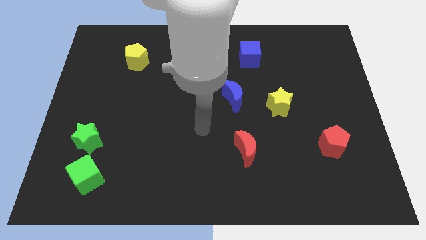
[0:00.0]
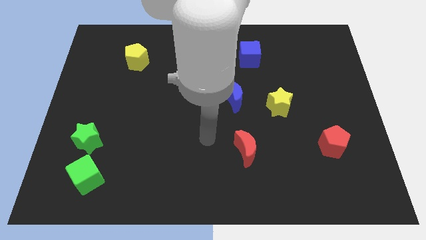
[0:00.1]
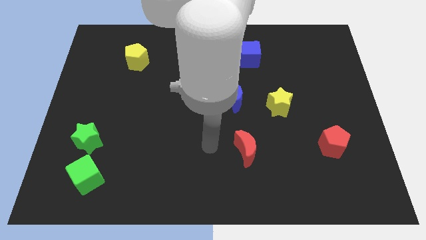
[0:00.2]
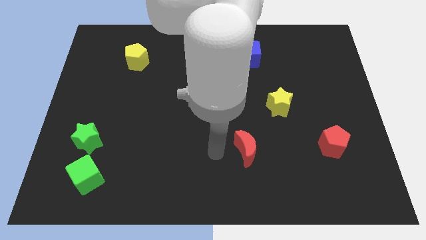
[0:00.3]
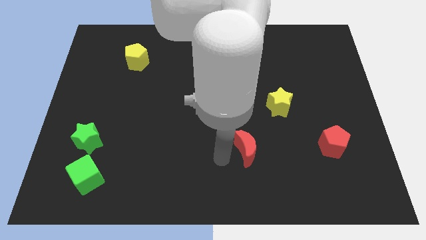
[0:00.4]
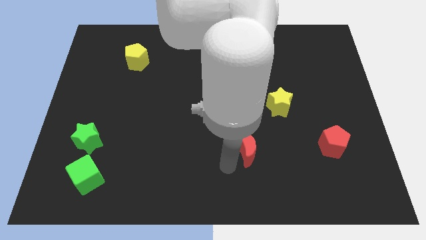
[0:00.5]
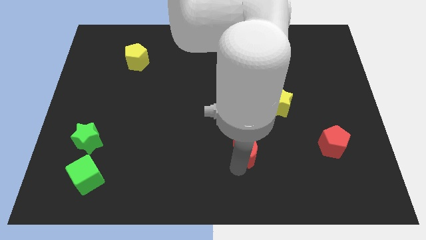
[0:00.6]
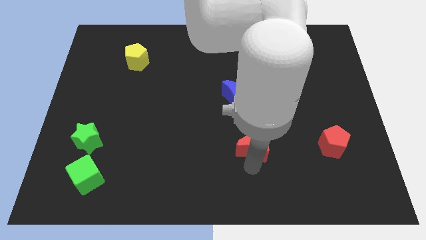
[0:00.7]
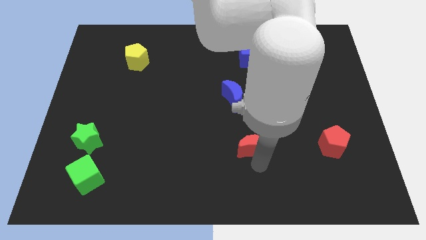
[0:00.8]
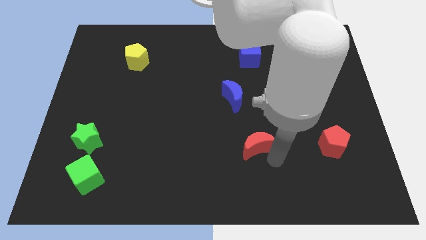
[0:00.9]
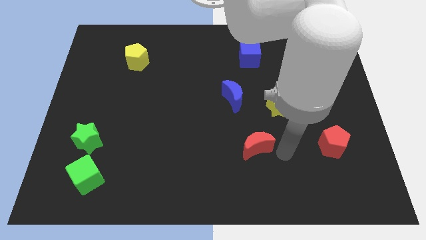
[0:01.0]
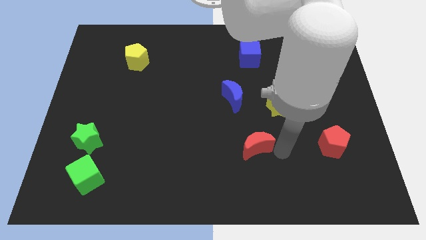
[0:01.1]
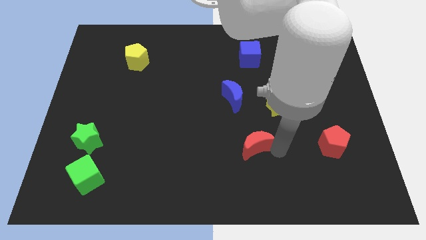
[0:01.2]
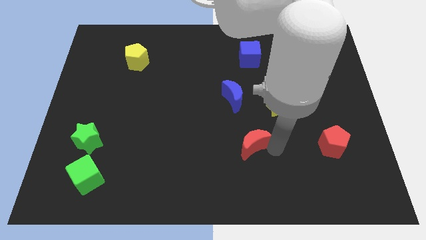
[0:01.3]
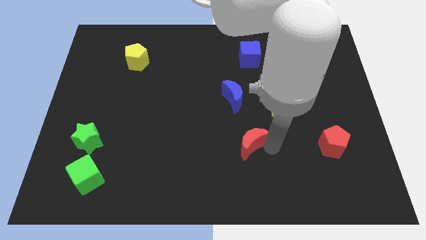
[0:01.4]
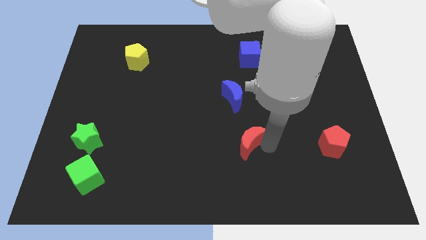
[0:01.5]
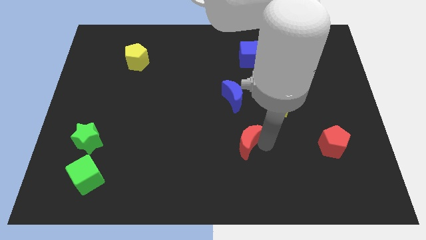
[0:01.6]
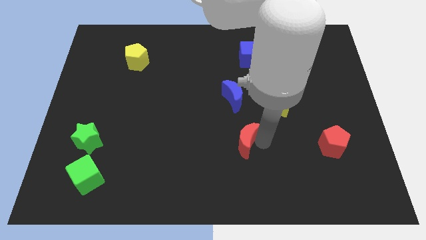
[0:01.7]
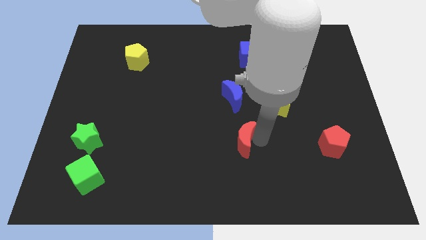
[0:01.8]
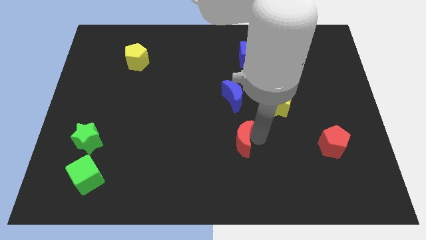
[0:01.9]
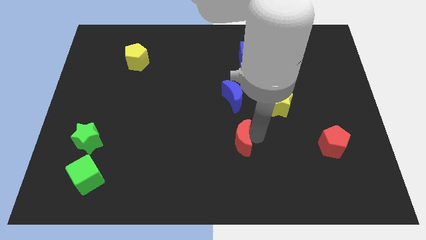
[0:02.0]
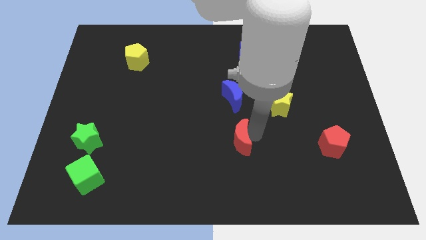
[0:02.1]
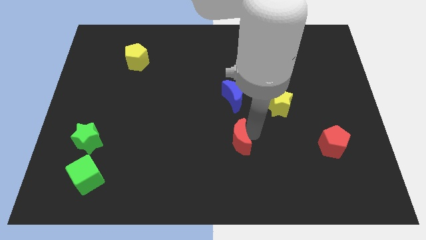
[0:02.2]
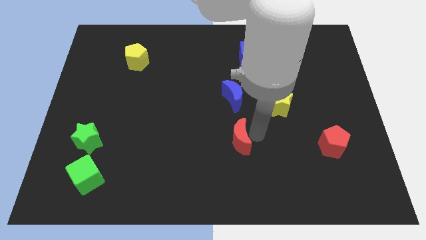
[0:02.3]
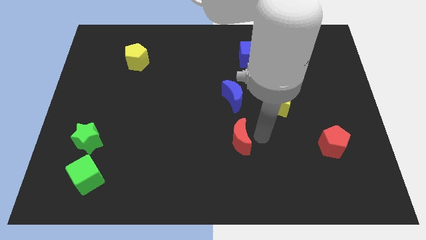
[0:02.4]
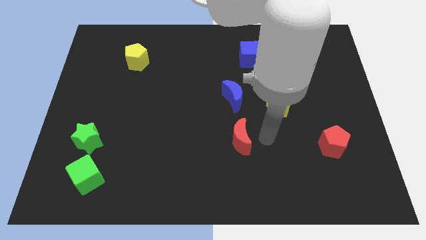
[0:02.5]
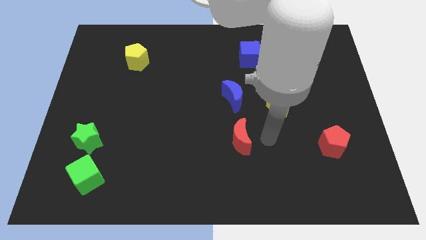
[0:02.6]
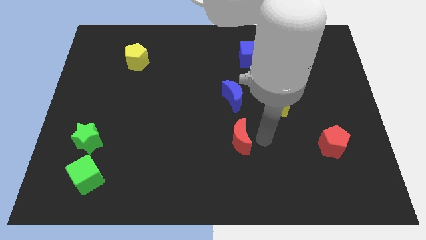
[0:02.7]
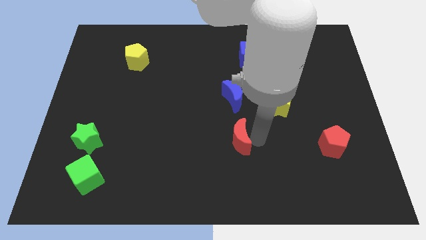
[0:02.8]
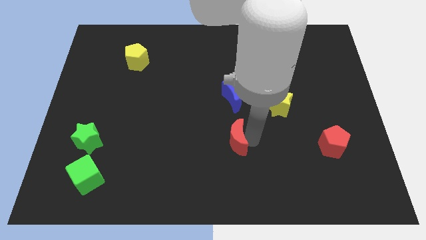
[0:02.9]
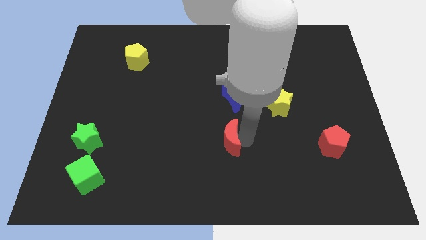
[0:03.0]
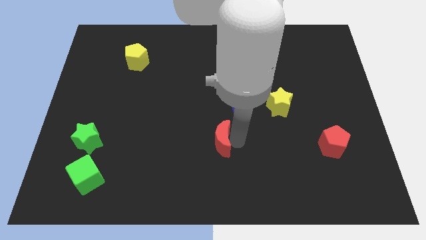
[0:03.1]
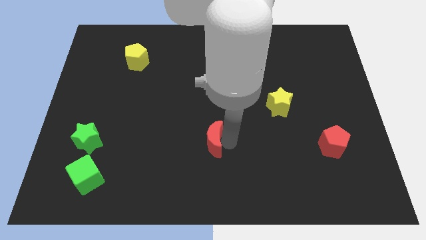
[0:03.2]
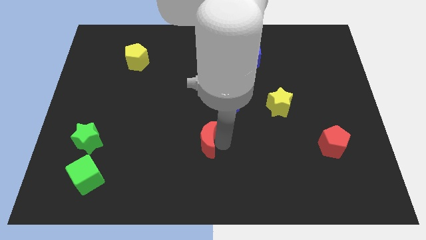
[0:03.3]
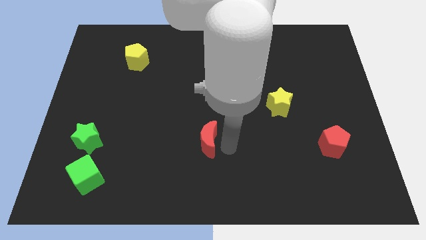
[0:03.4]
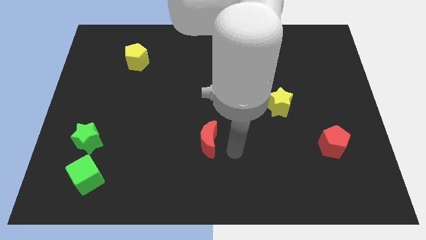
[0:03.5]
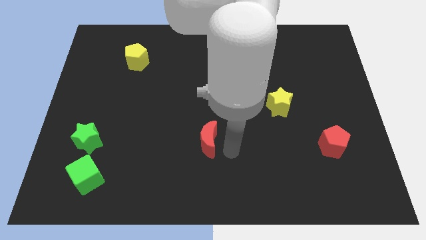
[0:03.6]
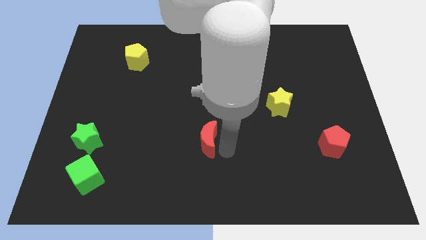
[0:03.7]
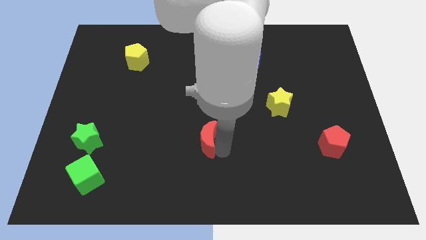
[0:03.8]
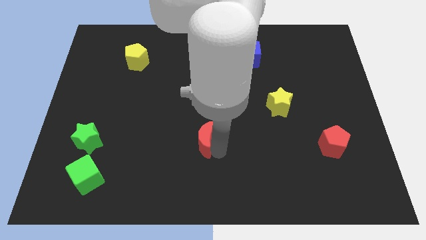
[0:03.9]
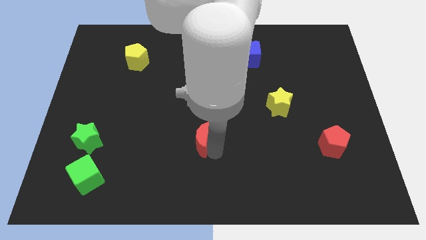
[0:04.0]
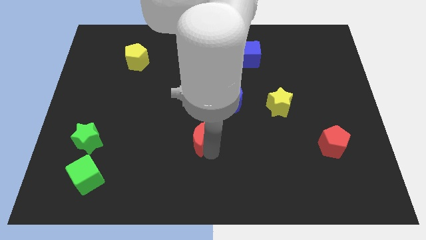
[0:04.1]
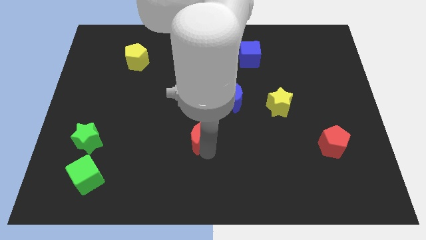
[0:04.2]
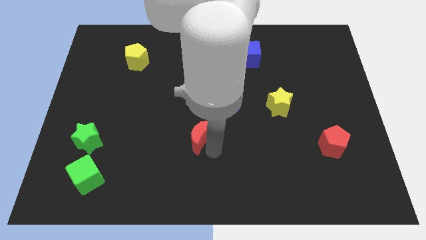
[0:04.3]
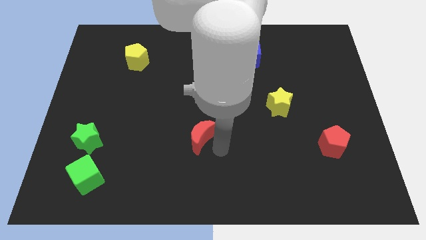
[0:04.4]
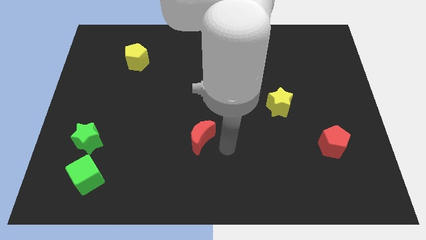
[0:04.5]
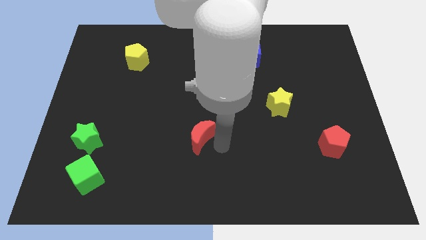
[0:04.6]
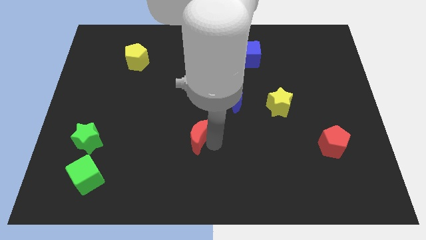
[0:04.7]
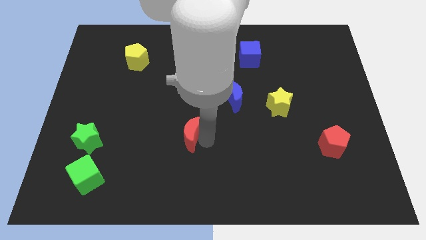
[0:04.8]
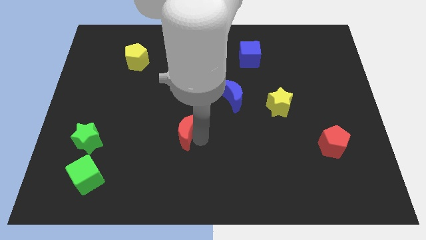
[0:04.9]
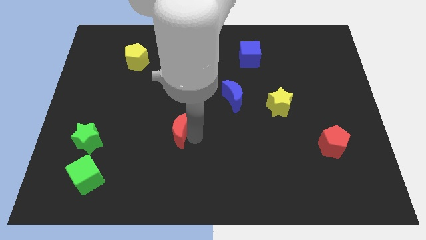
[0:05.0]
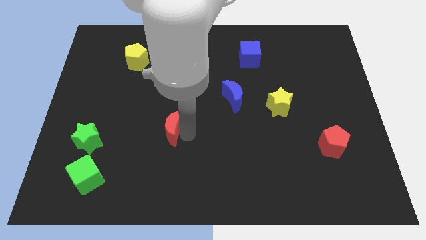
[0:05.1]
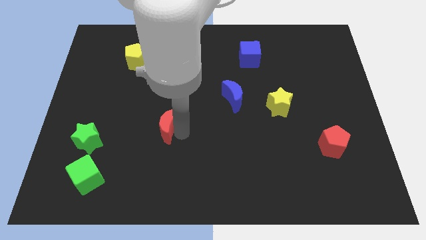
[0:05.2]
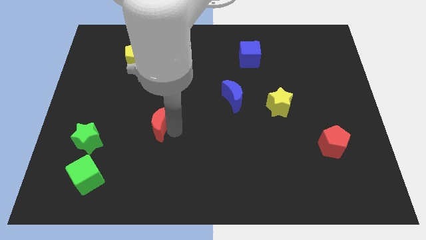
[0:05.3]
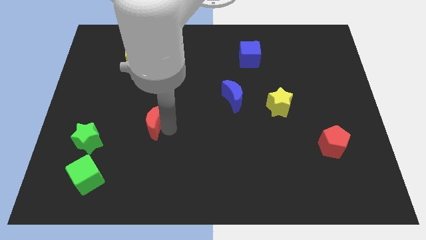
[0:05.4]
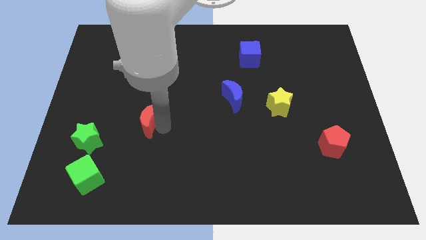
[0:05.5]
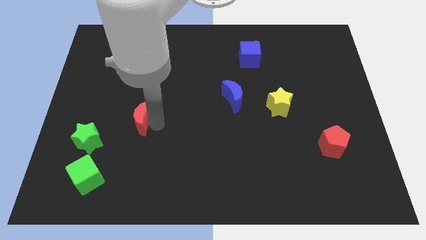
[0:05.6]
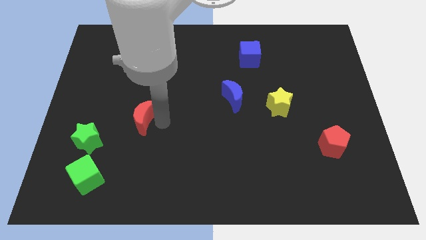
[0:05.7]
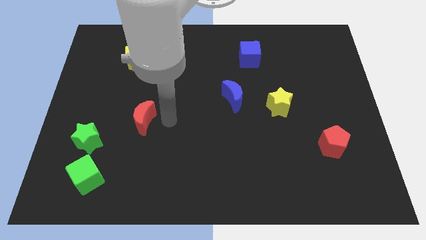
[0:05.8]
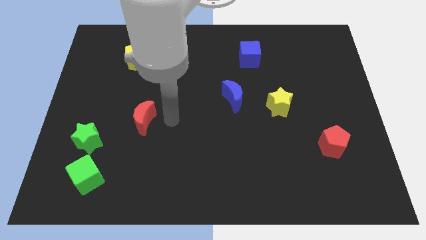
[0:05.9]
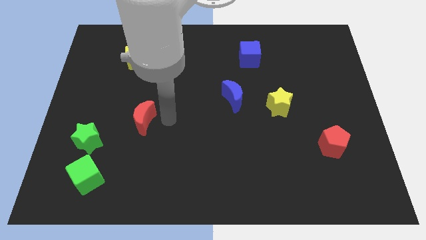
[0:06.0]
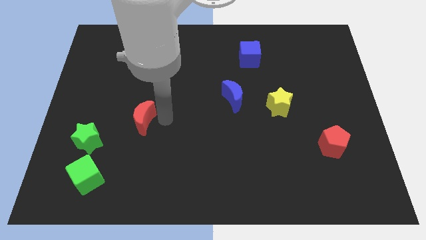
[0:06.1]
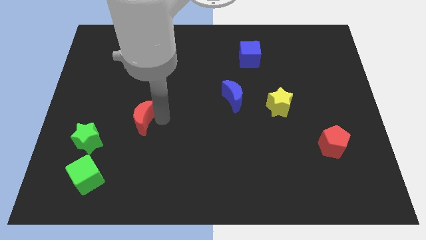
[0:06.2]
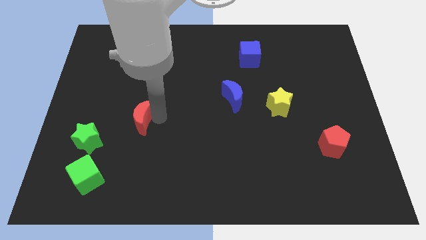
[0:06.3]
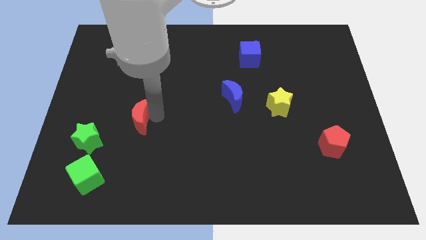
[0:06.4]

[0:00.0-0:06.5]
put the red moon to the top right of the green star
